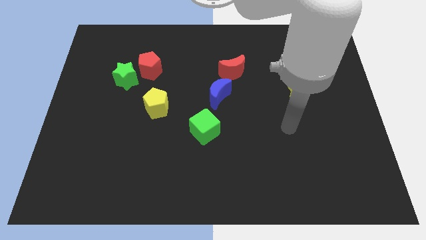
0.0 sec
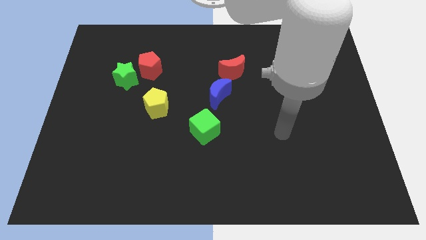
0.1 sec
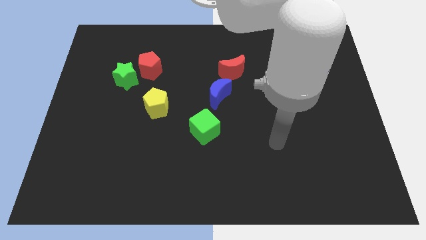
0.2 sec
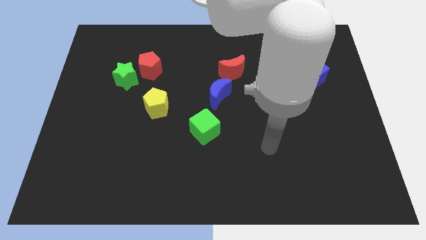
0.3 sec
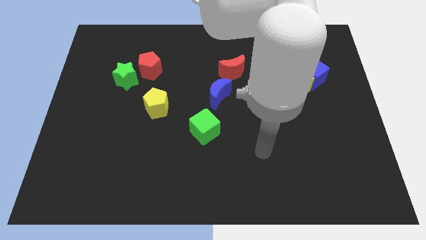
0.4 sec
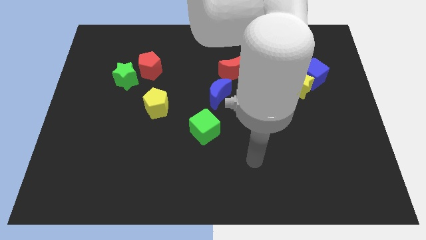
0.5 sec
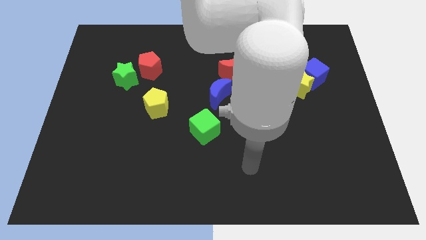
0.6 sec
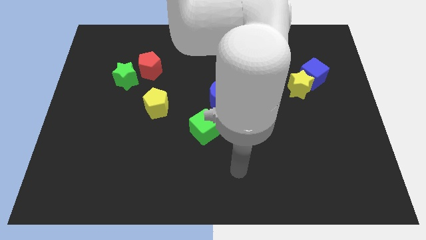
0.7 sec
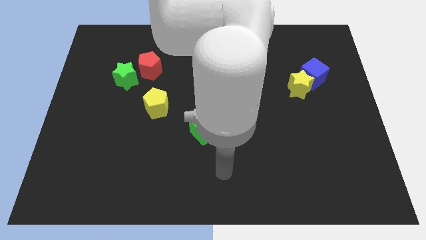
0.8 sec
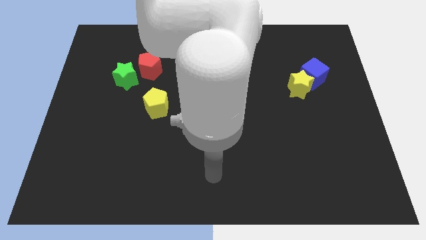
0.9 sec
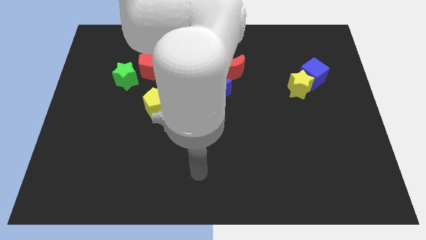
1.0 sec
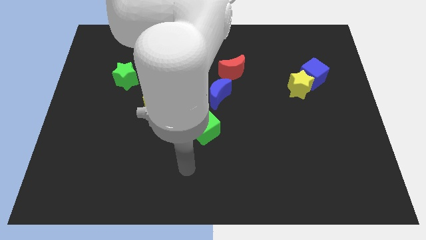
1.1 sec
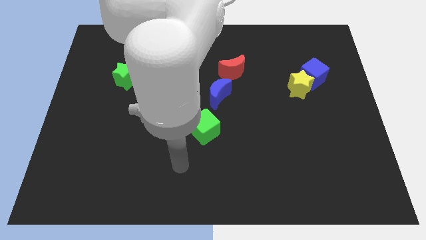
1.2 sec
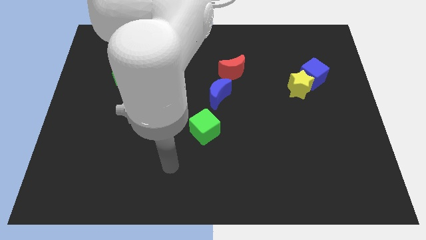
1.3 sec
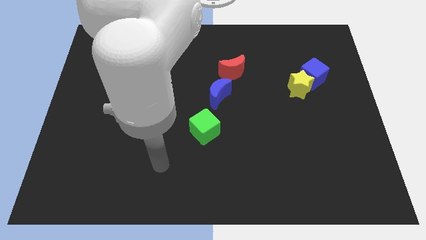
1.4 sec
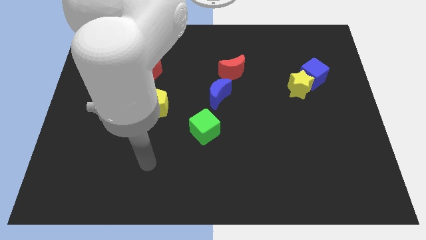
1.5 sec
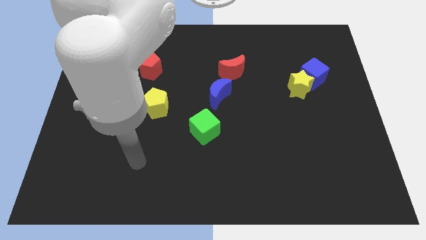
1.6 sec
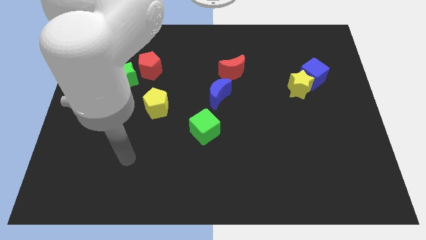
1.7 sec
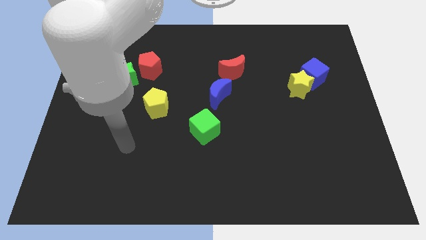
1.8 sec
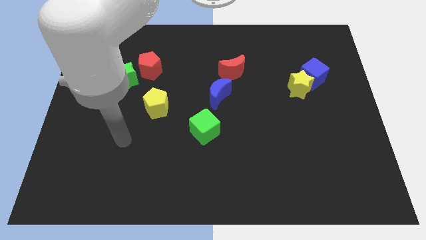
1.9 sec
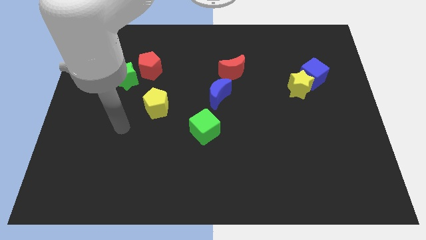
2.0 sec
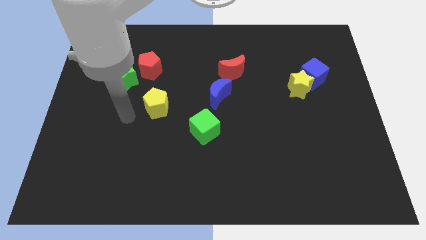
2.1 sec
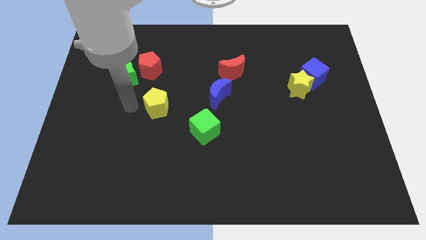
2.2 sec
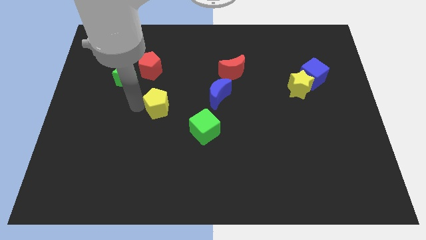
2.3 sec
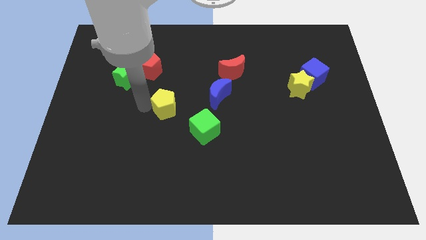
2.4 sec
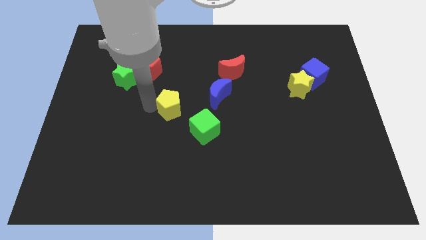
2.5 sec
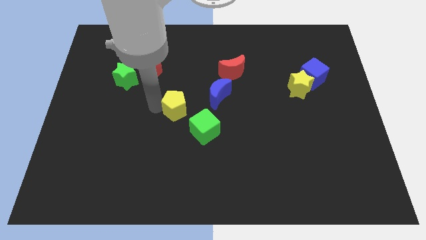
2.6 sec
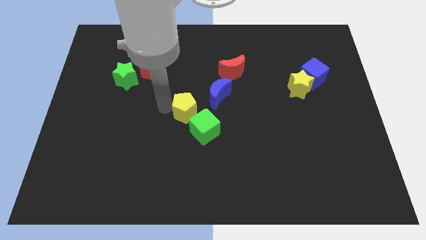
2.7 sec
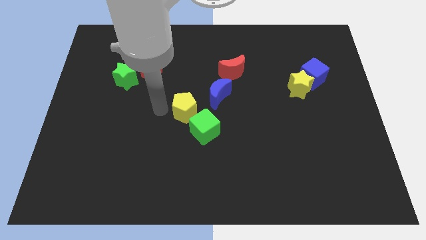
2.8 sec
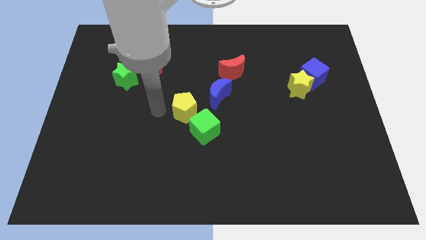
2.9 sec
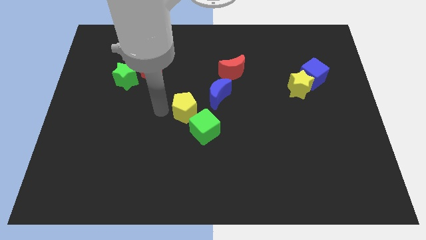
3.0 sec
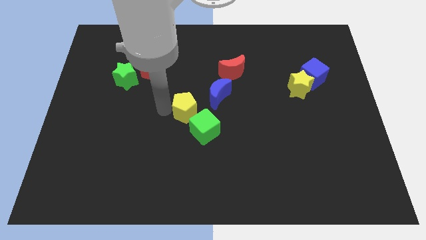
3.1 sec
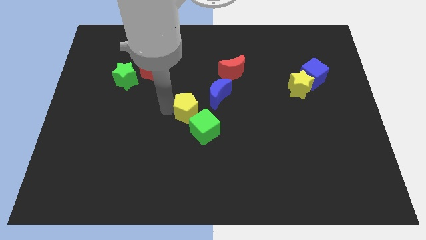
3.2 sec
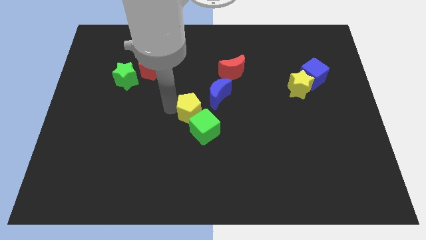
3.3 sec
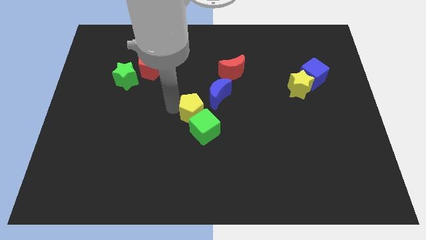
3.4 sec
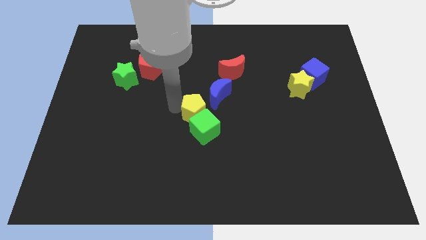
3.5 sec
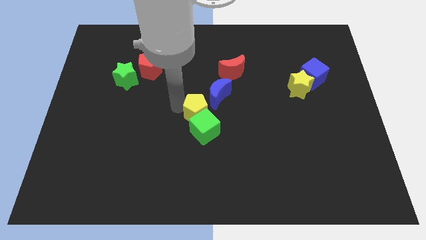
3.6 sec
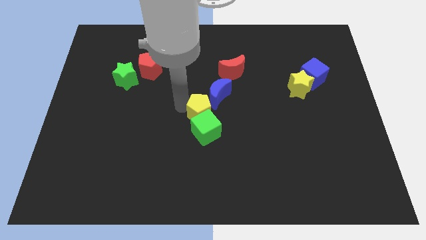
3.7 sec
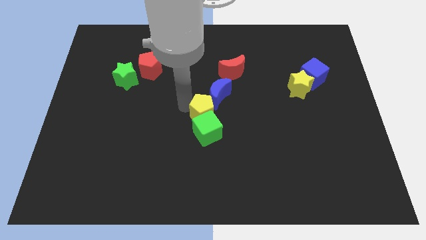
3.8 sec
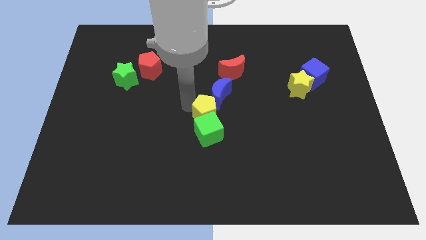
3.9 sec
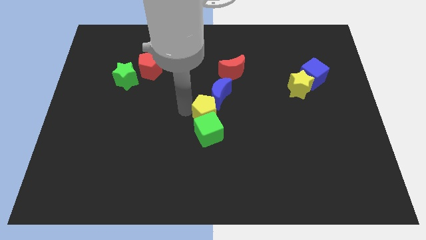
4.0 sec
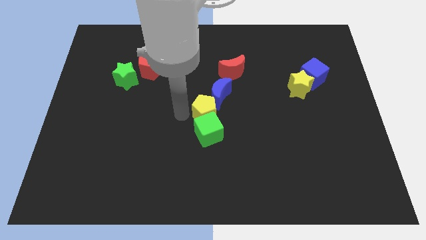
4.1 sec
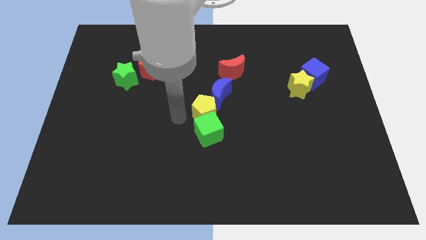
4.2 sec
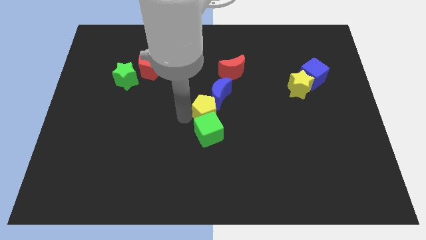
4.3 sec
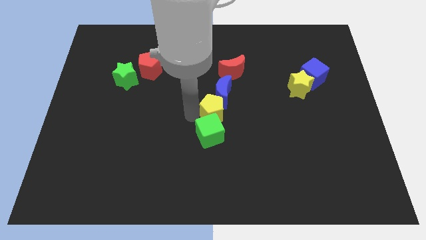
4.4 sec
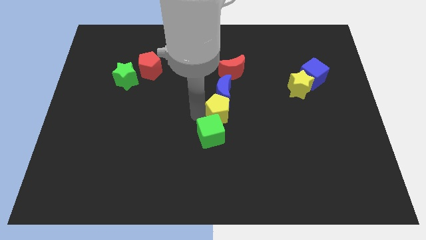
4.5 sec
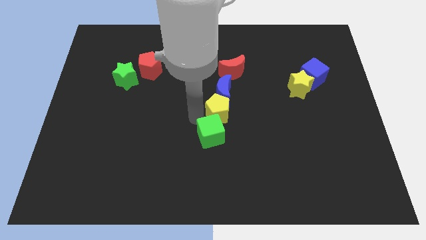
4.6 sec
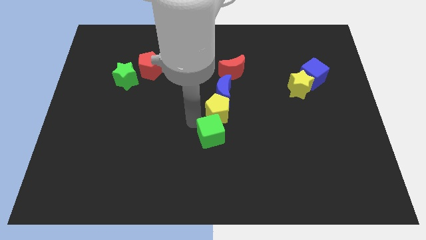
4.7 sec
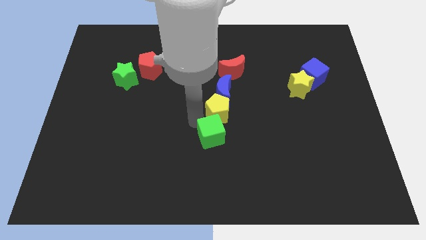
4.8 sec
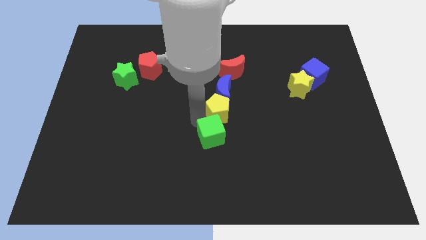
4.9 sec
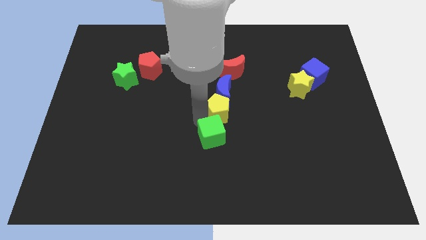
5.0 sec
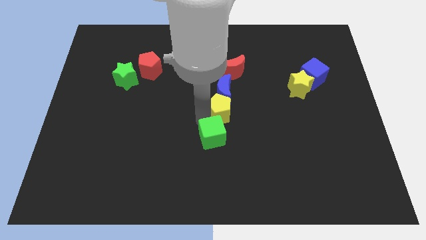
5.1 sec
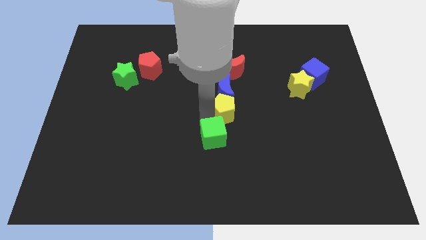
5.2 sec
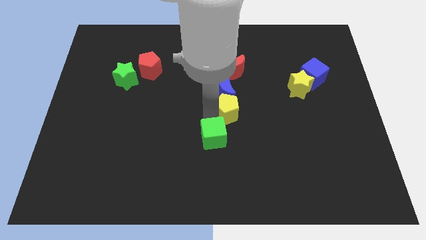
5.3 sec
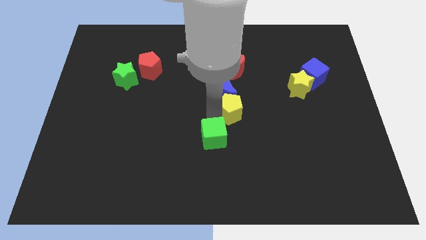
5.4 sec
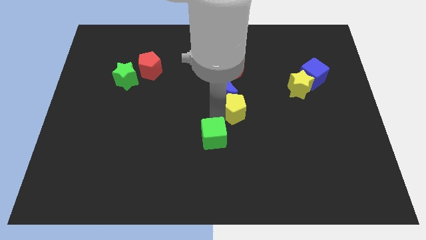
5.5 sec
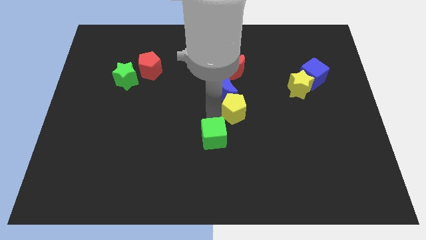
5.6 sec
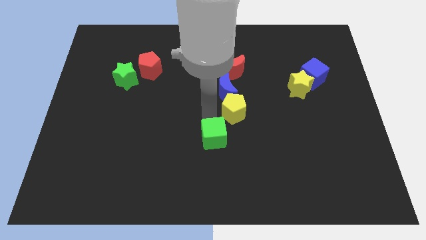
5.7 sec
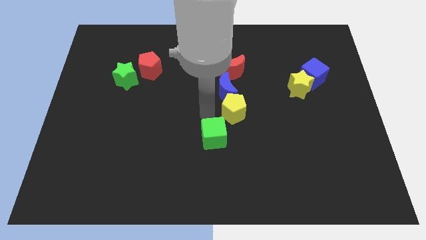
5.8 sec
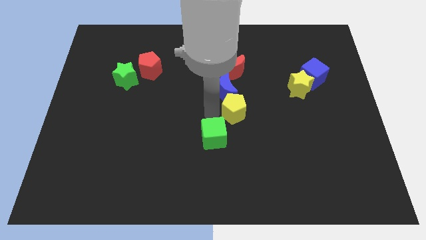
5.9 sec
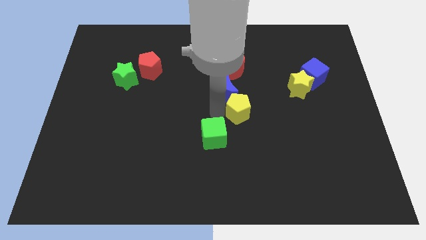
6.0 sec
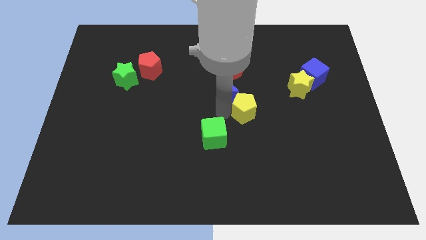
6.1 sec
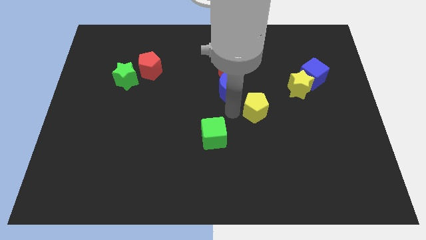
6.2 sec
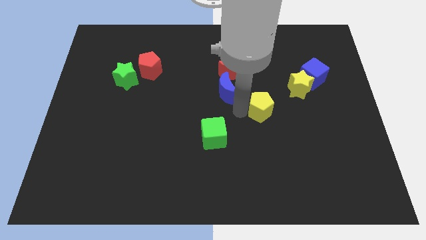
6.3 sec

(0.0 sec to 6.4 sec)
push the yellow pentagon to the bottom left of the yellow star

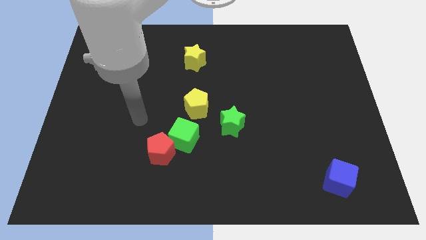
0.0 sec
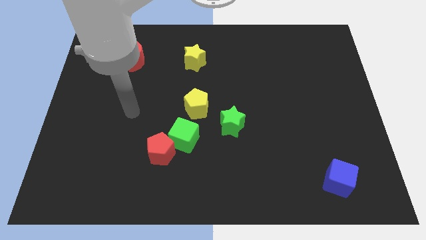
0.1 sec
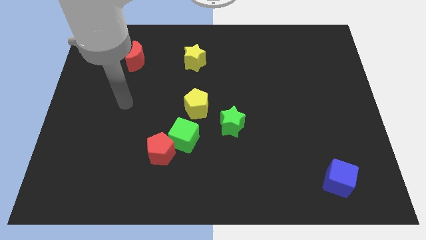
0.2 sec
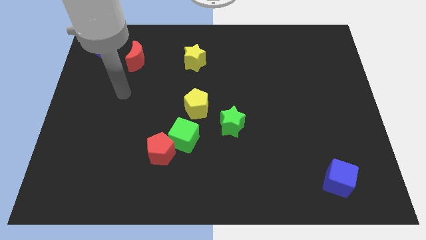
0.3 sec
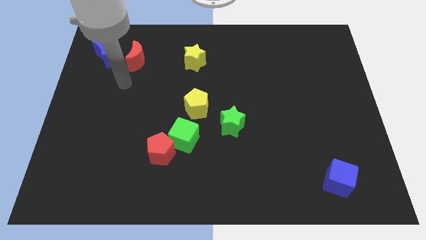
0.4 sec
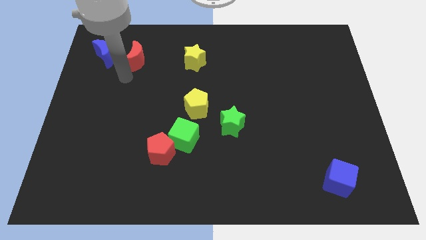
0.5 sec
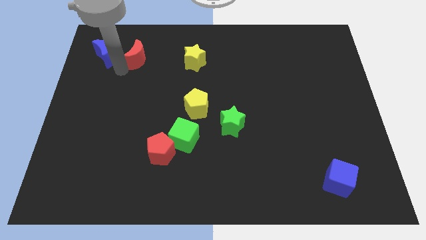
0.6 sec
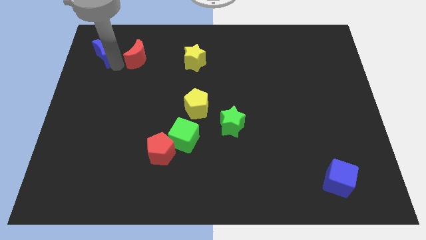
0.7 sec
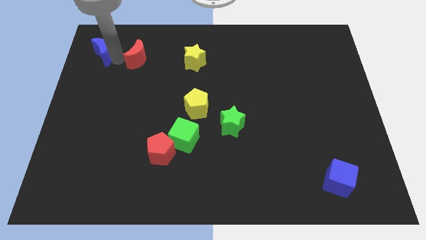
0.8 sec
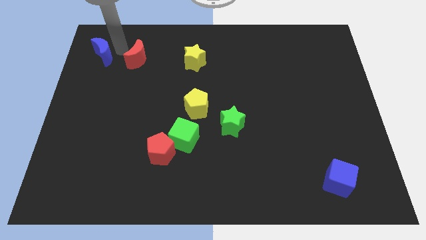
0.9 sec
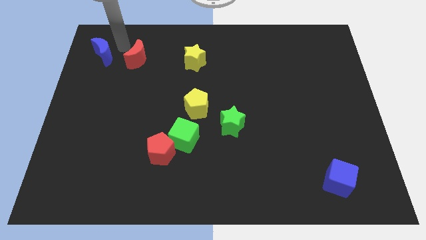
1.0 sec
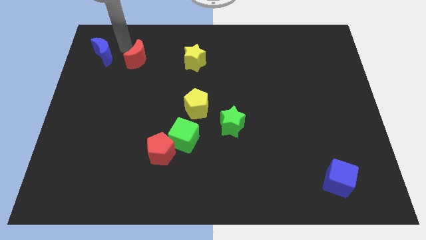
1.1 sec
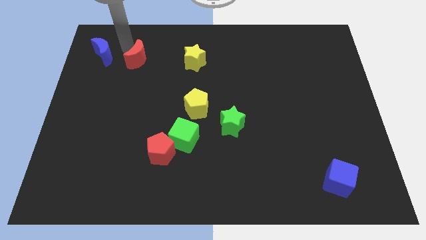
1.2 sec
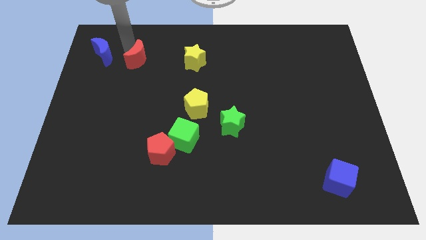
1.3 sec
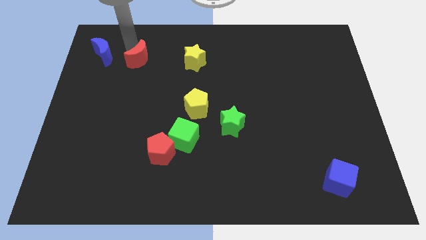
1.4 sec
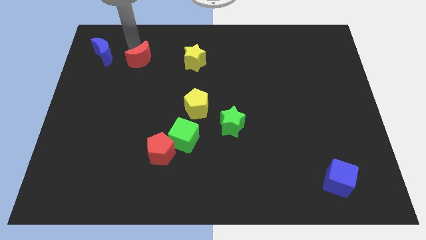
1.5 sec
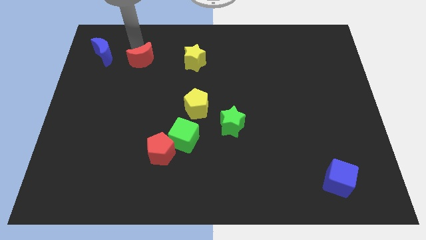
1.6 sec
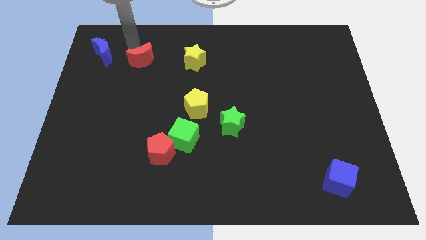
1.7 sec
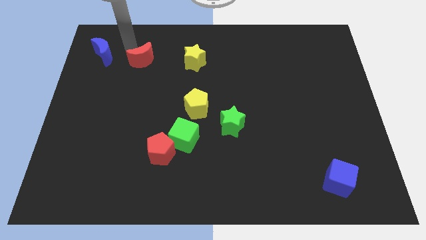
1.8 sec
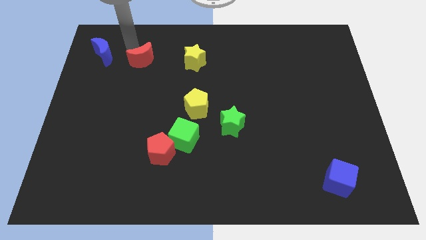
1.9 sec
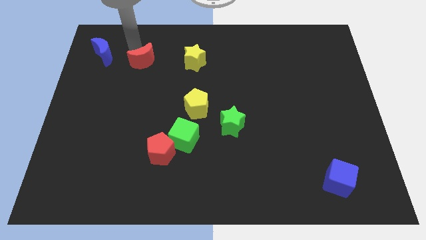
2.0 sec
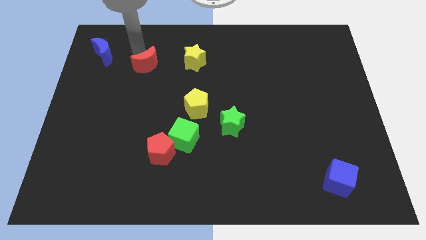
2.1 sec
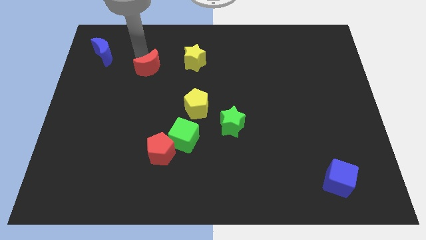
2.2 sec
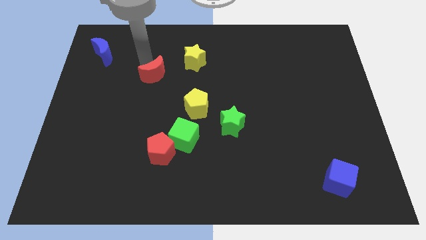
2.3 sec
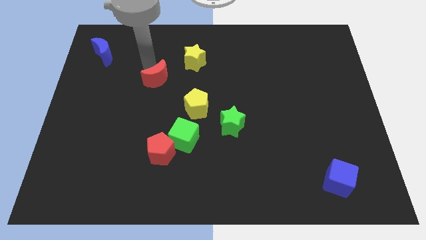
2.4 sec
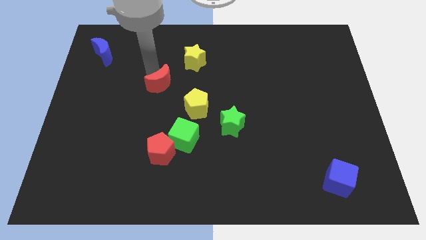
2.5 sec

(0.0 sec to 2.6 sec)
put the red moon to the top left of the yellow pentagon
